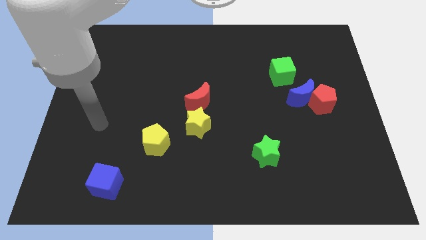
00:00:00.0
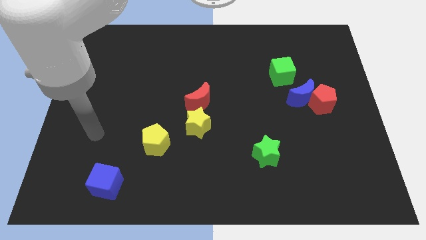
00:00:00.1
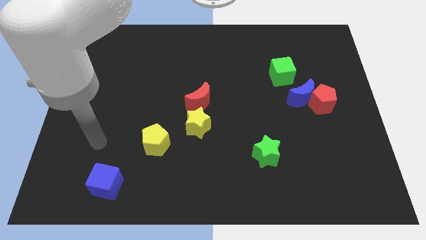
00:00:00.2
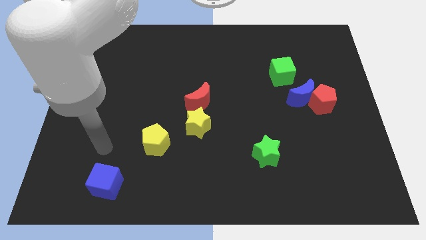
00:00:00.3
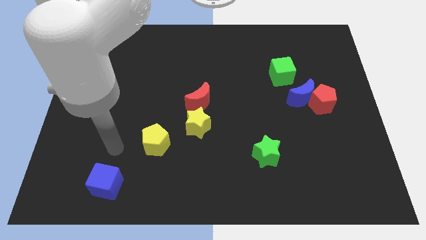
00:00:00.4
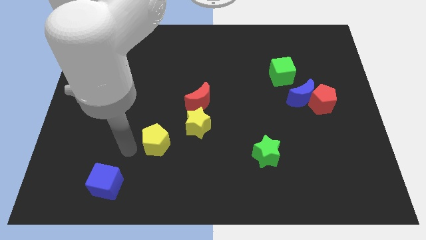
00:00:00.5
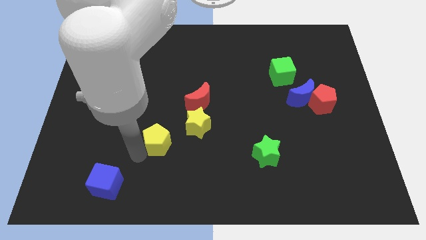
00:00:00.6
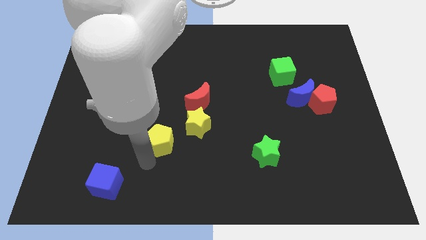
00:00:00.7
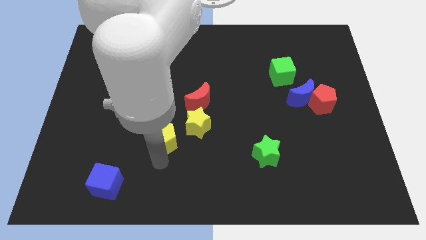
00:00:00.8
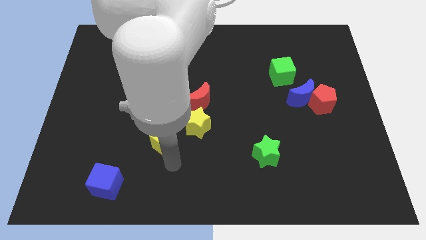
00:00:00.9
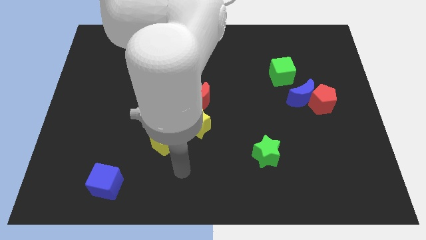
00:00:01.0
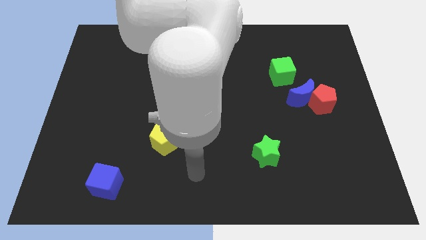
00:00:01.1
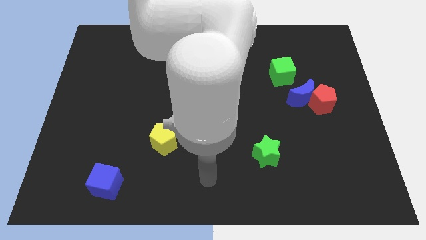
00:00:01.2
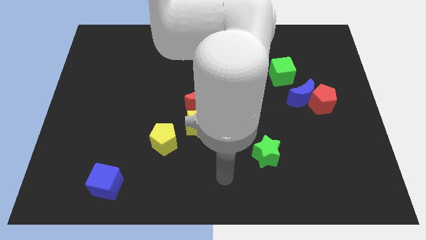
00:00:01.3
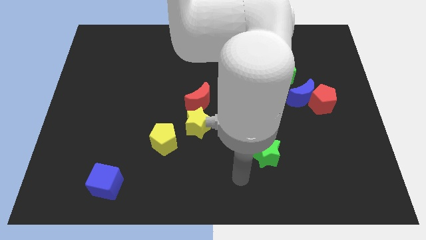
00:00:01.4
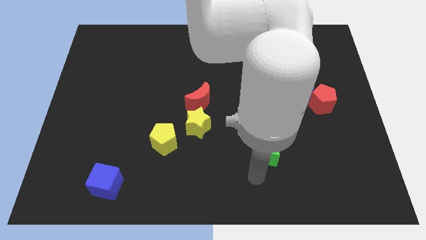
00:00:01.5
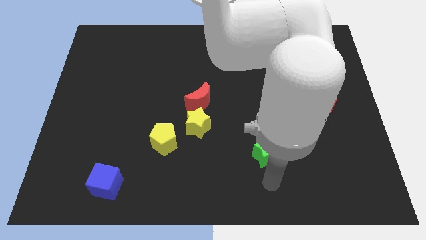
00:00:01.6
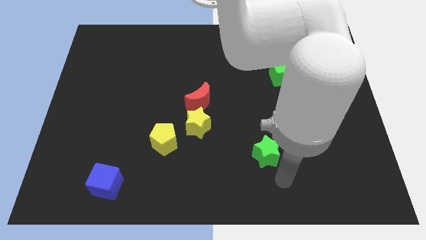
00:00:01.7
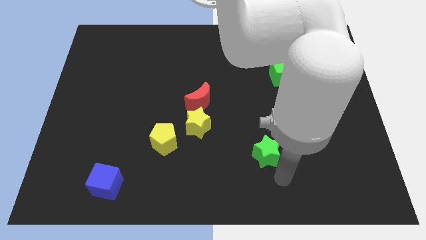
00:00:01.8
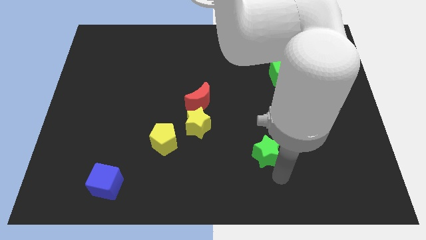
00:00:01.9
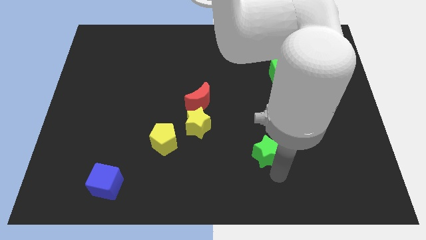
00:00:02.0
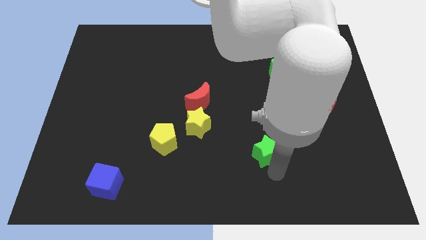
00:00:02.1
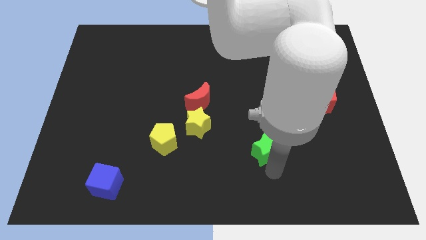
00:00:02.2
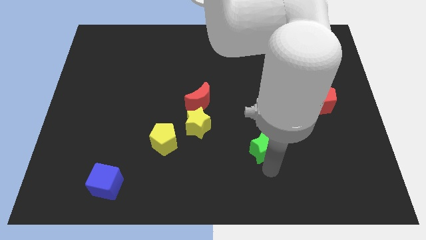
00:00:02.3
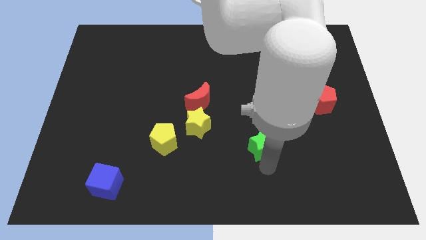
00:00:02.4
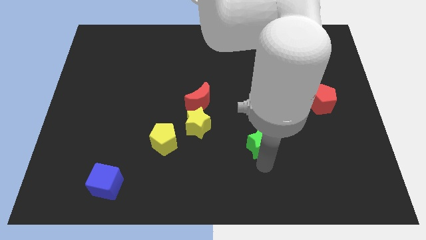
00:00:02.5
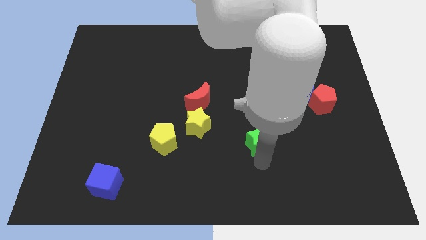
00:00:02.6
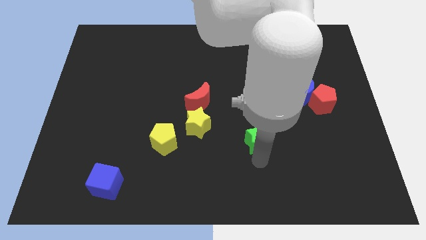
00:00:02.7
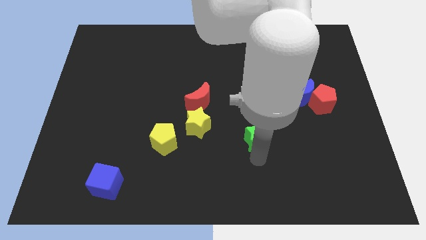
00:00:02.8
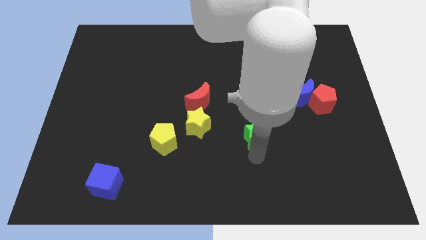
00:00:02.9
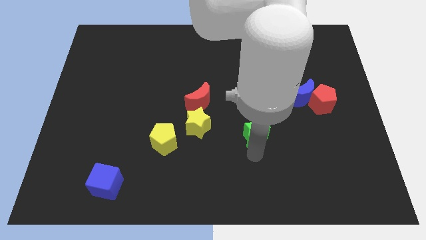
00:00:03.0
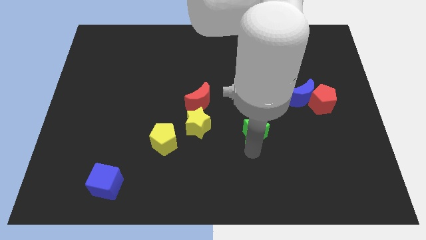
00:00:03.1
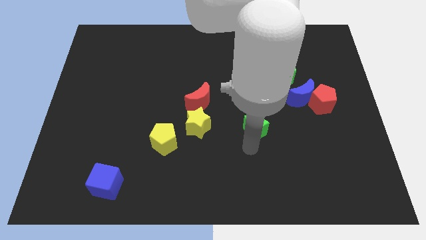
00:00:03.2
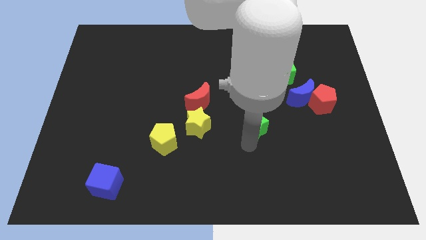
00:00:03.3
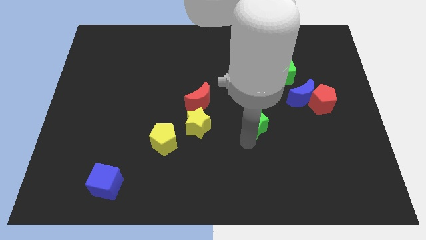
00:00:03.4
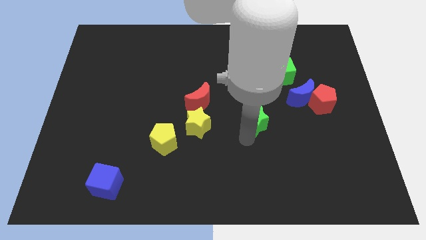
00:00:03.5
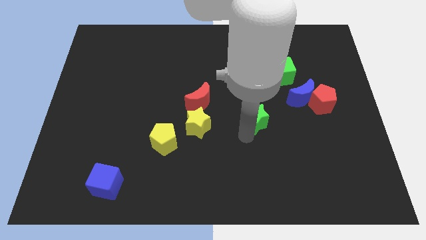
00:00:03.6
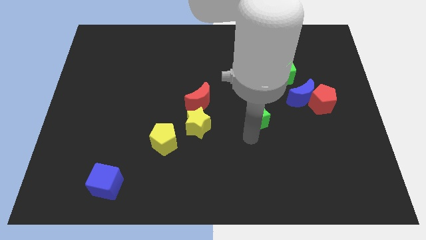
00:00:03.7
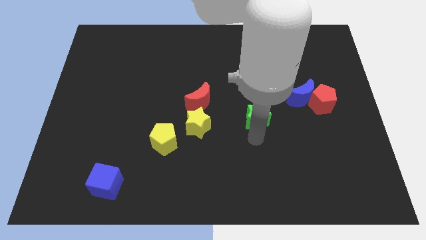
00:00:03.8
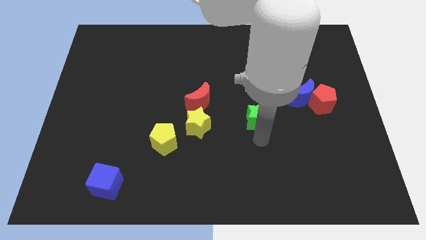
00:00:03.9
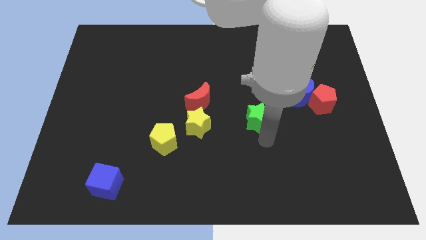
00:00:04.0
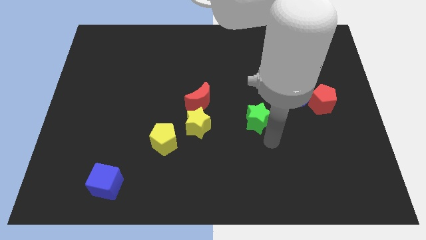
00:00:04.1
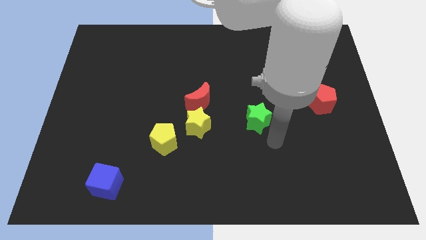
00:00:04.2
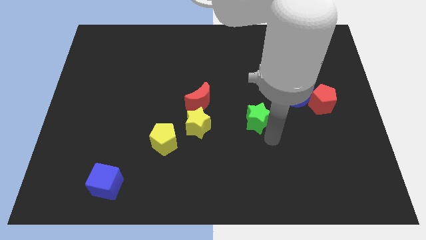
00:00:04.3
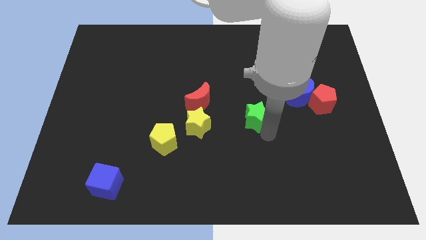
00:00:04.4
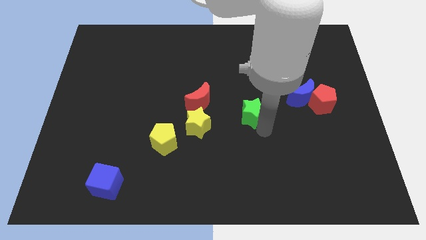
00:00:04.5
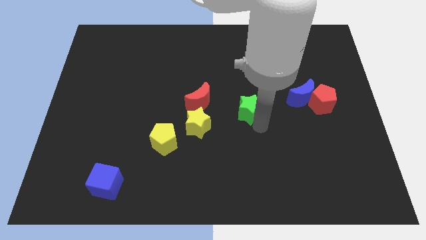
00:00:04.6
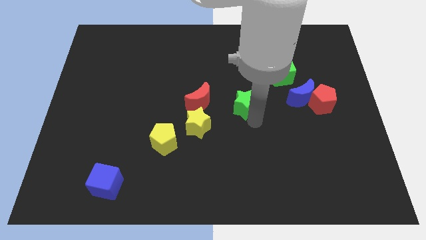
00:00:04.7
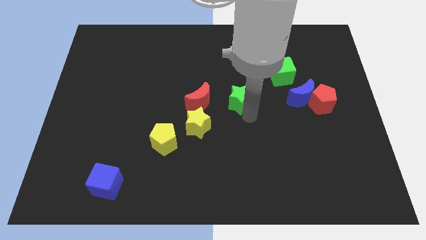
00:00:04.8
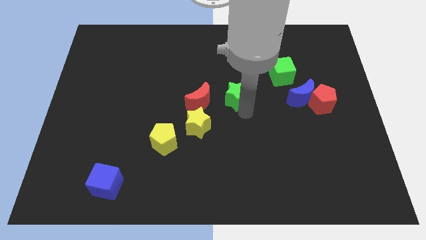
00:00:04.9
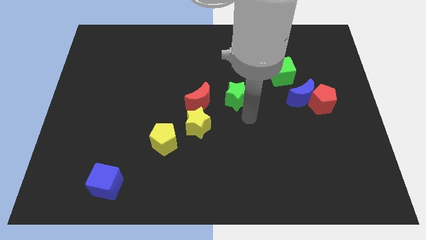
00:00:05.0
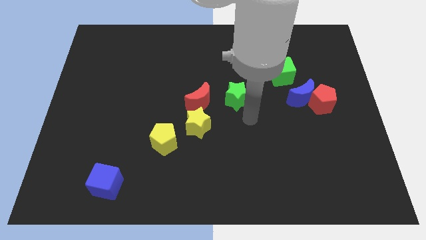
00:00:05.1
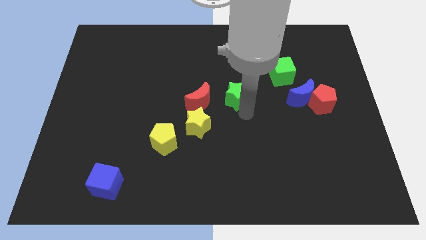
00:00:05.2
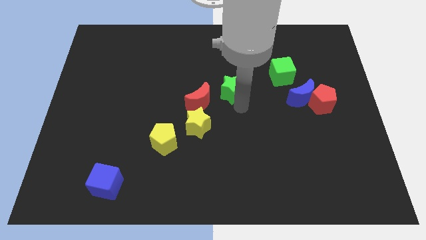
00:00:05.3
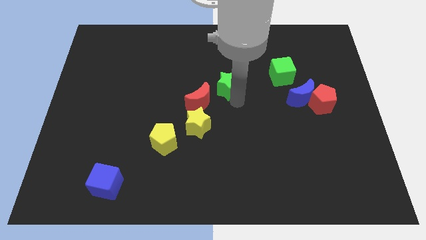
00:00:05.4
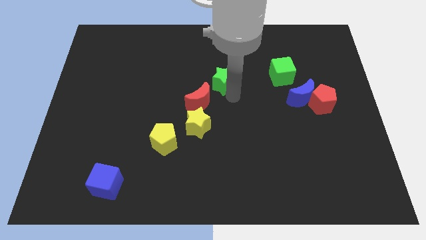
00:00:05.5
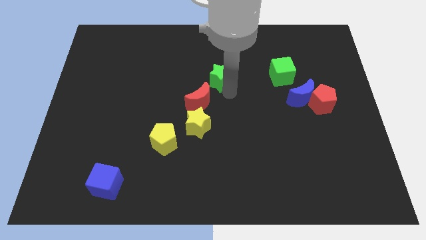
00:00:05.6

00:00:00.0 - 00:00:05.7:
put the green star above the red moon

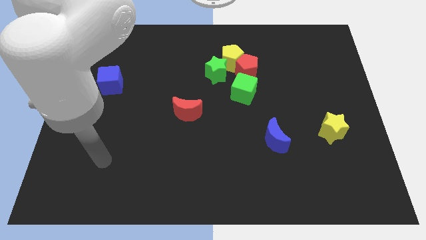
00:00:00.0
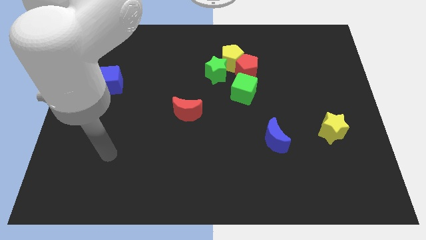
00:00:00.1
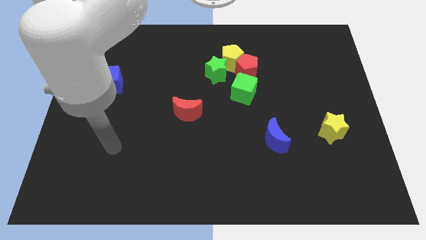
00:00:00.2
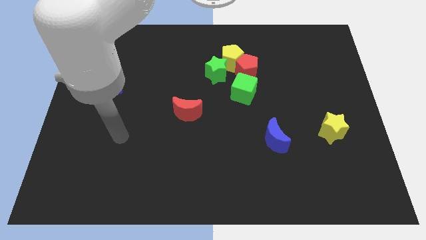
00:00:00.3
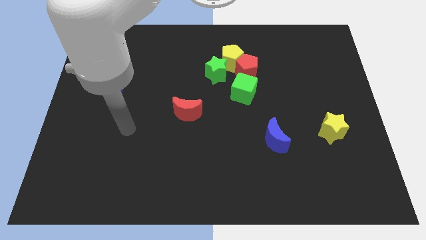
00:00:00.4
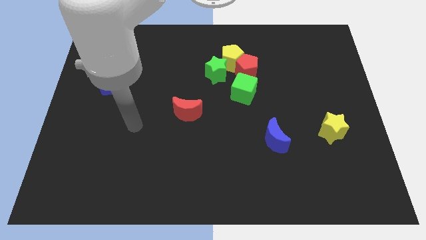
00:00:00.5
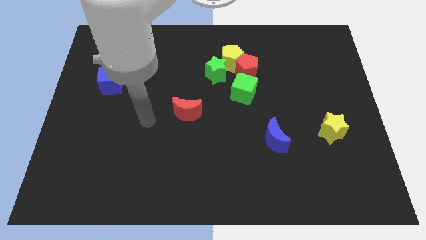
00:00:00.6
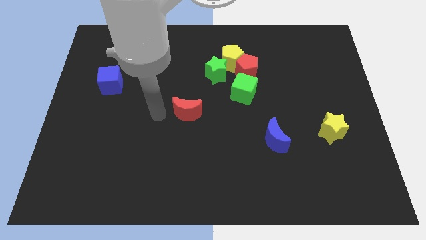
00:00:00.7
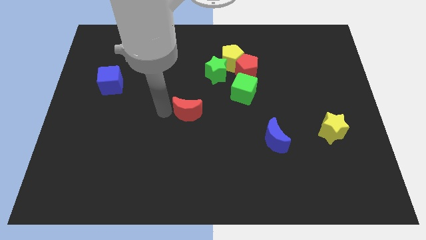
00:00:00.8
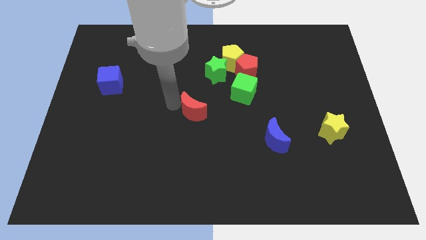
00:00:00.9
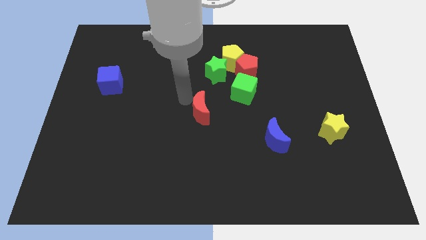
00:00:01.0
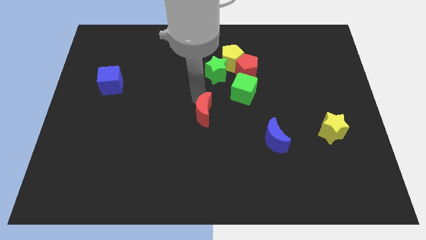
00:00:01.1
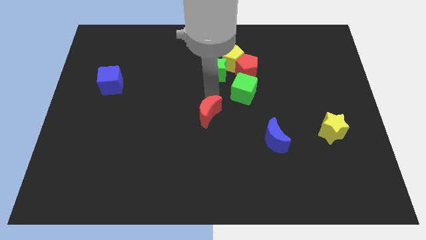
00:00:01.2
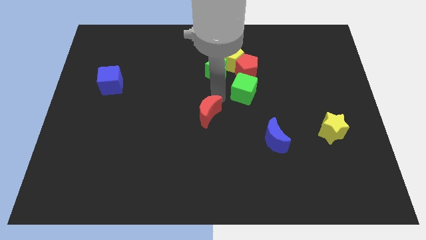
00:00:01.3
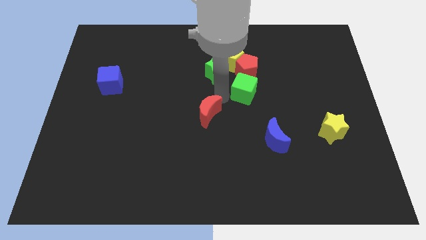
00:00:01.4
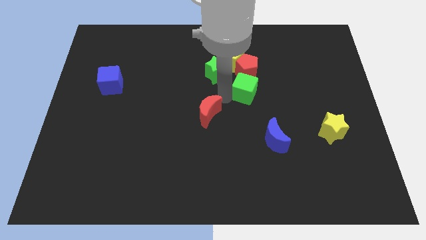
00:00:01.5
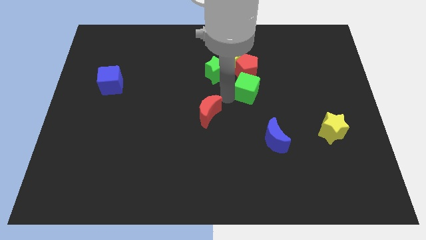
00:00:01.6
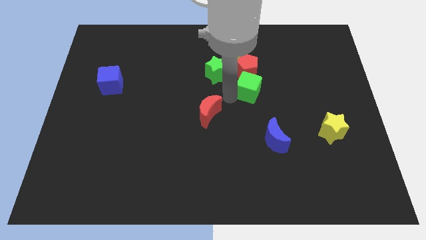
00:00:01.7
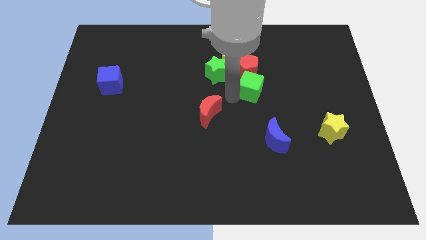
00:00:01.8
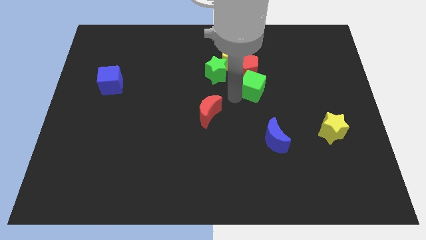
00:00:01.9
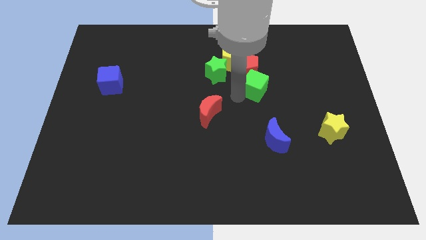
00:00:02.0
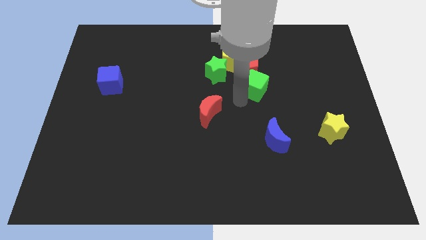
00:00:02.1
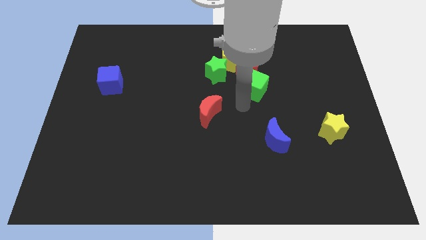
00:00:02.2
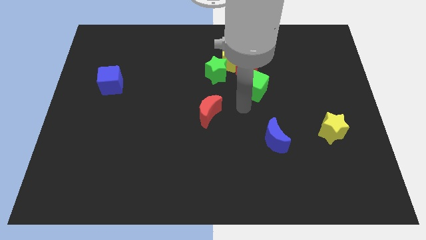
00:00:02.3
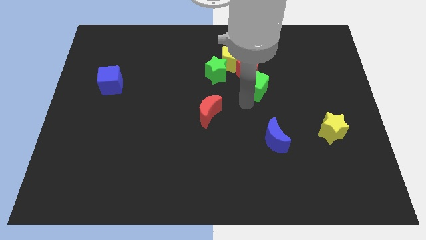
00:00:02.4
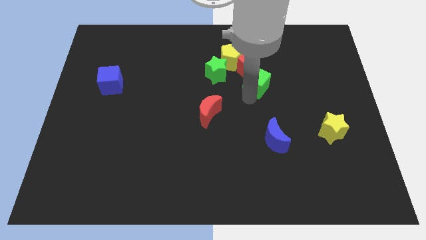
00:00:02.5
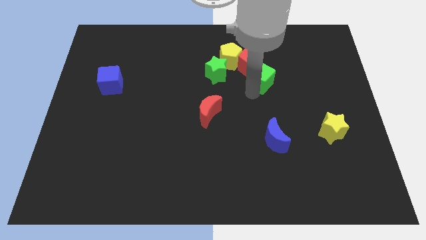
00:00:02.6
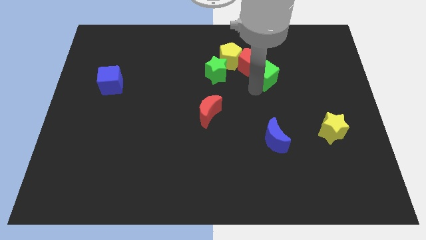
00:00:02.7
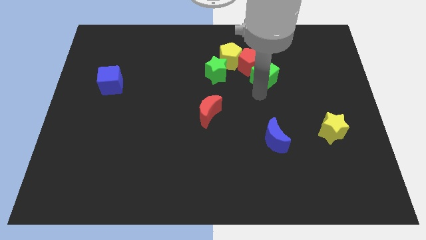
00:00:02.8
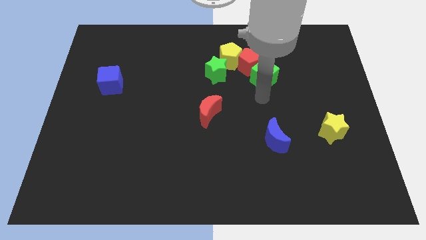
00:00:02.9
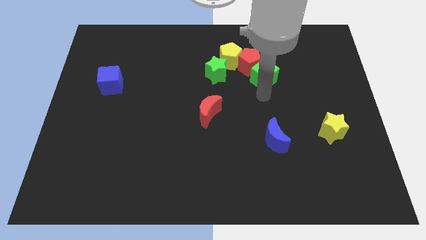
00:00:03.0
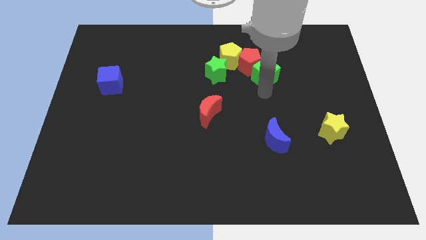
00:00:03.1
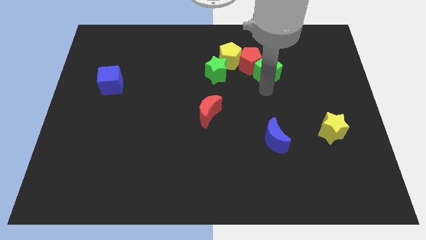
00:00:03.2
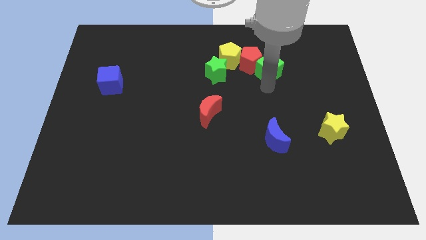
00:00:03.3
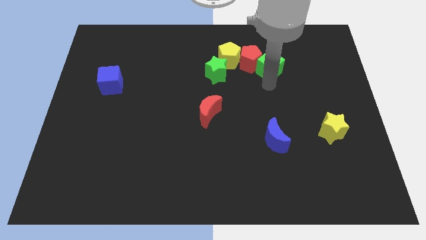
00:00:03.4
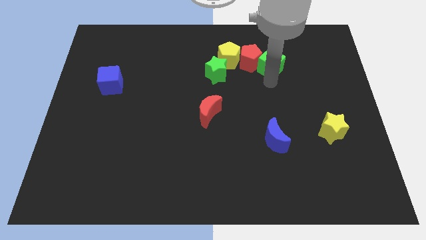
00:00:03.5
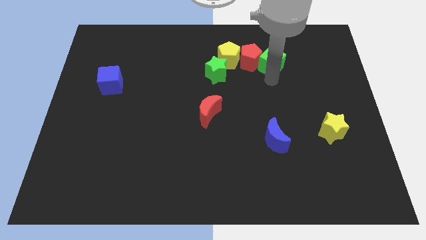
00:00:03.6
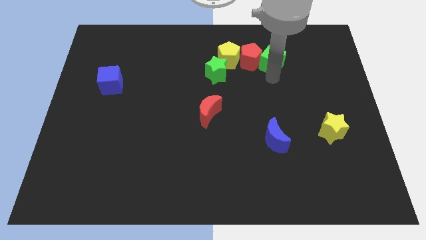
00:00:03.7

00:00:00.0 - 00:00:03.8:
push the green cube to the top right of the red pentagon
